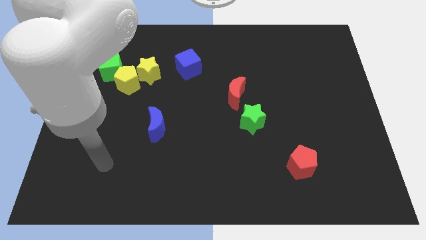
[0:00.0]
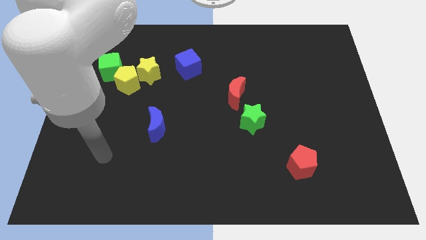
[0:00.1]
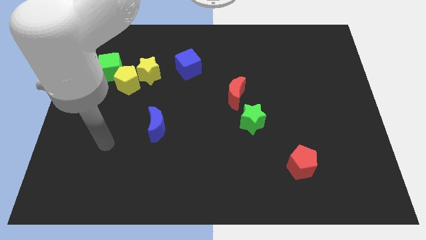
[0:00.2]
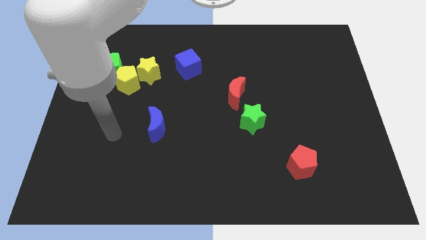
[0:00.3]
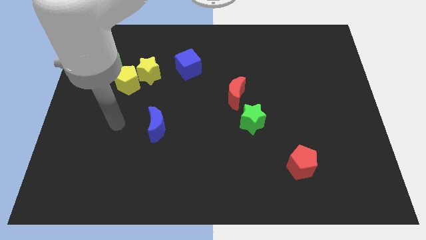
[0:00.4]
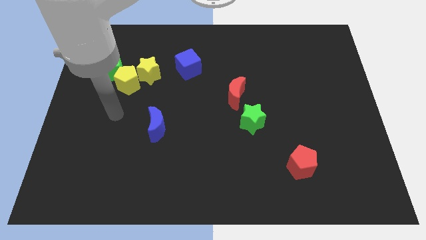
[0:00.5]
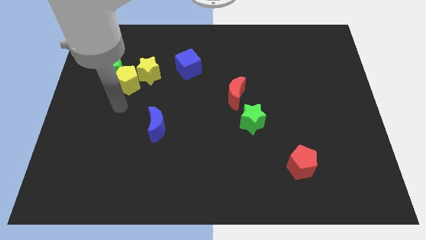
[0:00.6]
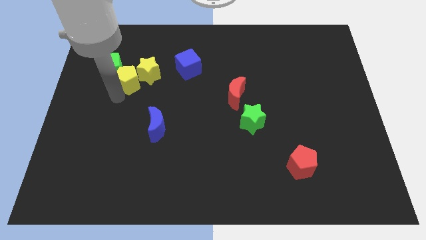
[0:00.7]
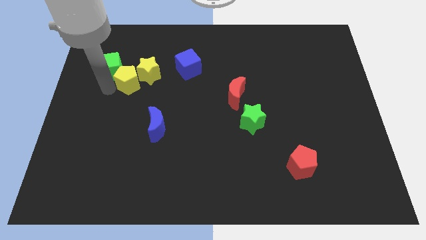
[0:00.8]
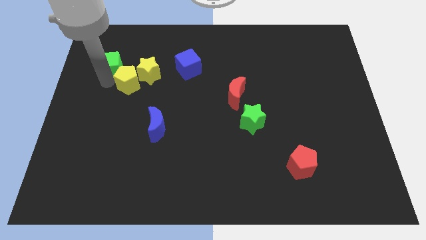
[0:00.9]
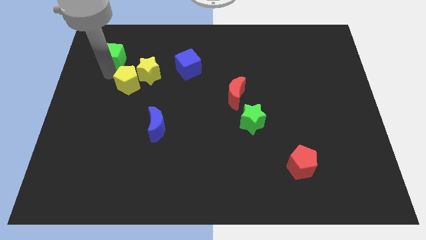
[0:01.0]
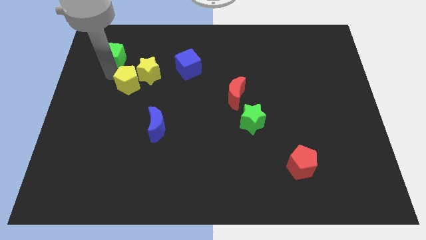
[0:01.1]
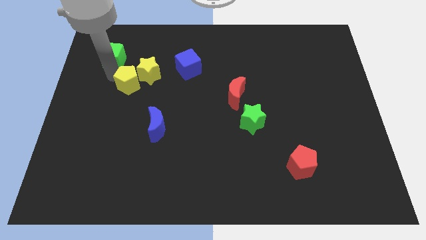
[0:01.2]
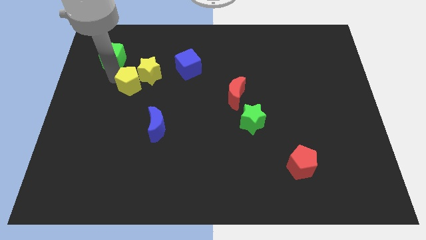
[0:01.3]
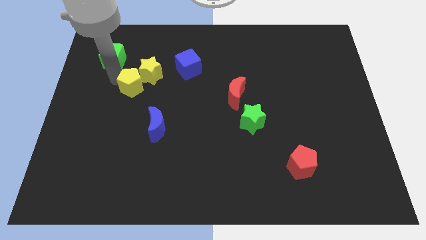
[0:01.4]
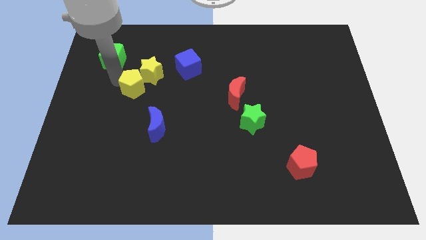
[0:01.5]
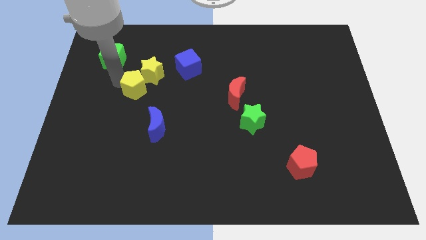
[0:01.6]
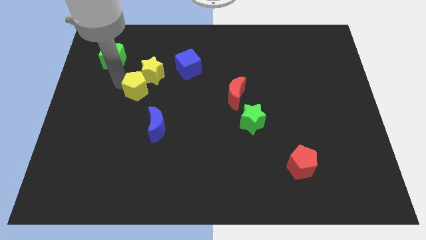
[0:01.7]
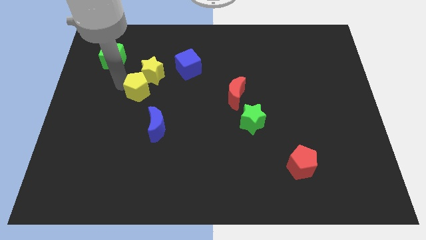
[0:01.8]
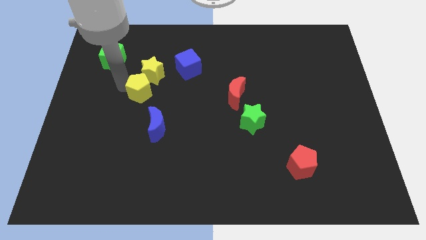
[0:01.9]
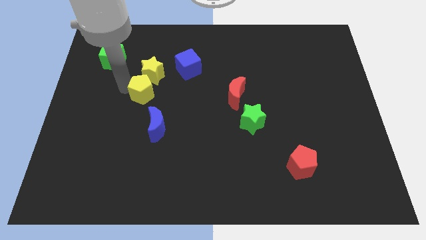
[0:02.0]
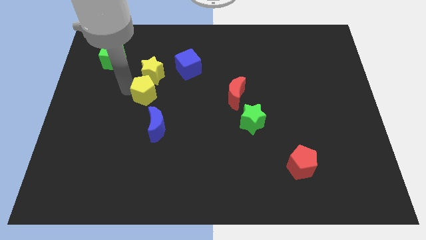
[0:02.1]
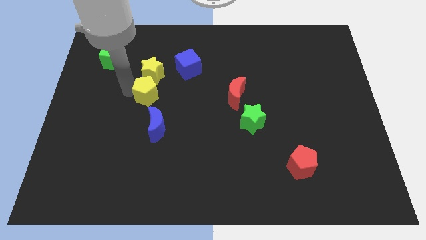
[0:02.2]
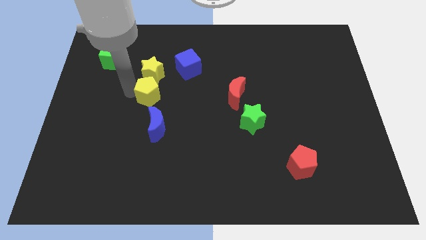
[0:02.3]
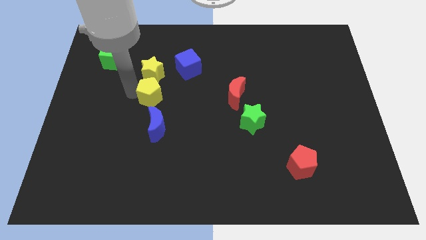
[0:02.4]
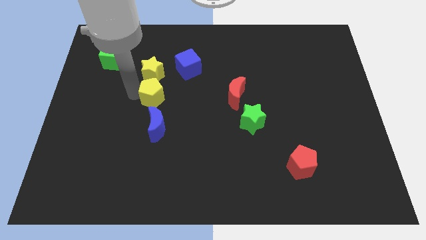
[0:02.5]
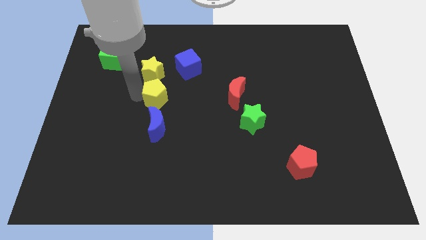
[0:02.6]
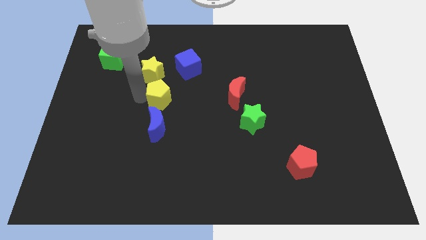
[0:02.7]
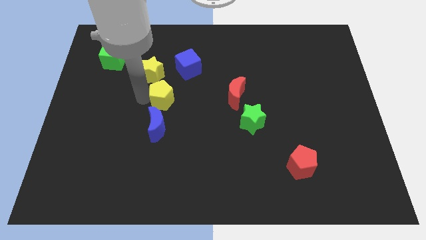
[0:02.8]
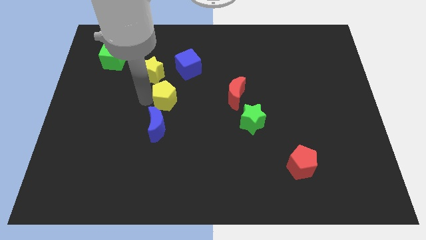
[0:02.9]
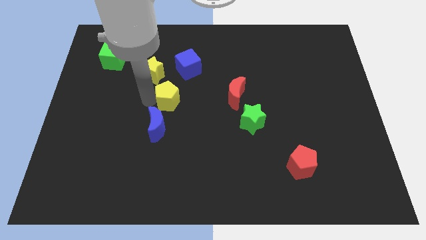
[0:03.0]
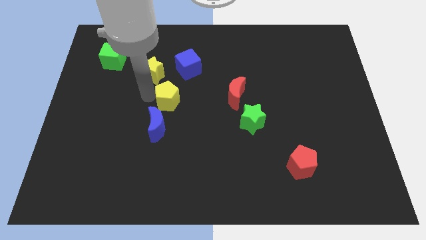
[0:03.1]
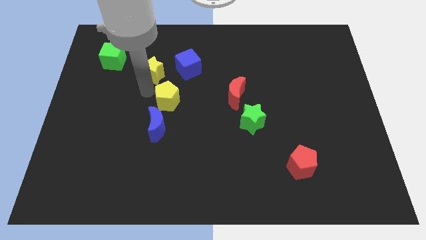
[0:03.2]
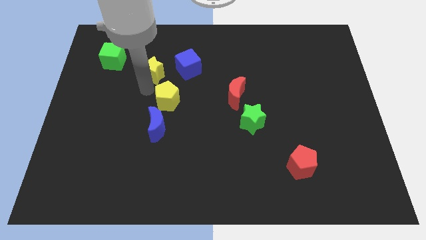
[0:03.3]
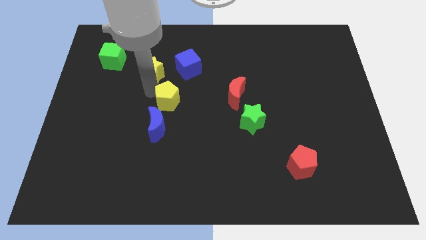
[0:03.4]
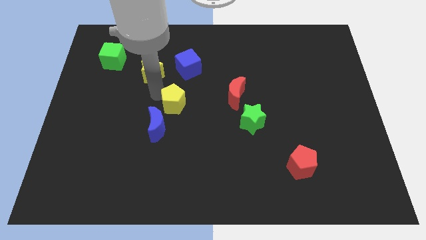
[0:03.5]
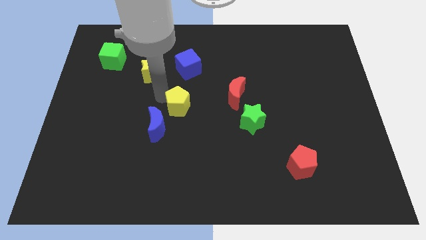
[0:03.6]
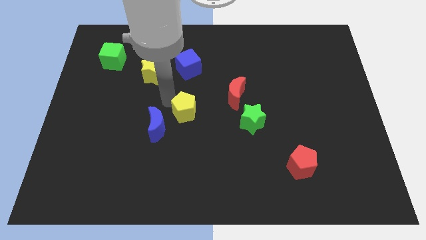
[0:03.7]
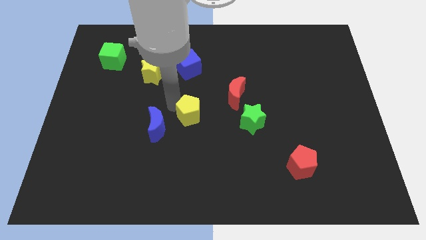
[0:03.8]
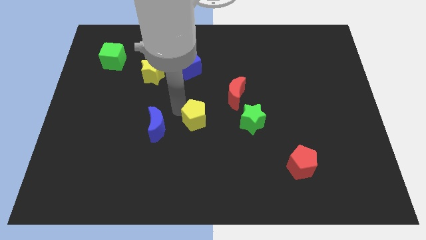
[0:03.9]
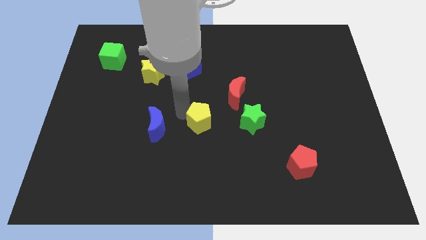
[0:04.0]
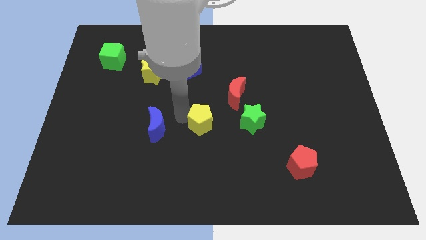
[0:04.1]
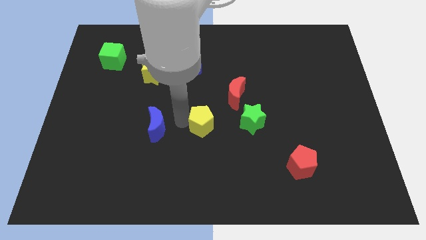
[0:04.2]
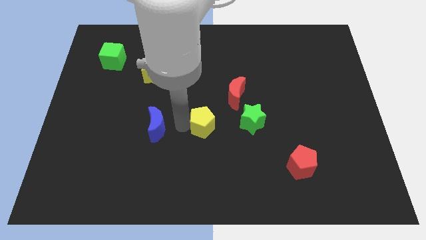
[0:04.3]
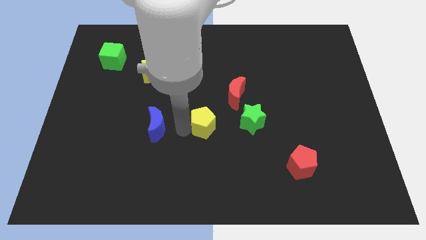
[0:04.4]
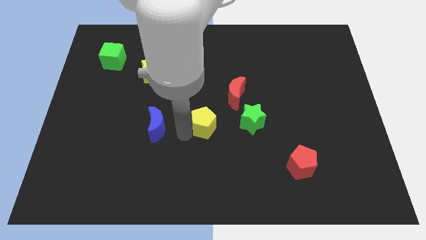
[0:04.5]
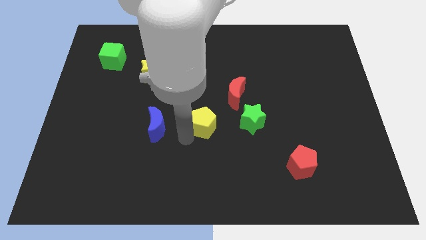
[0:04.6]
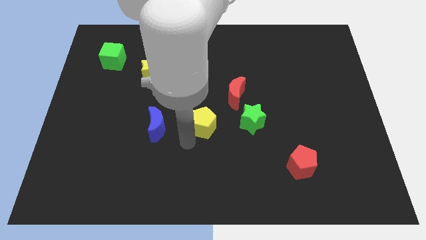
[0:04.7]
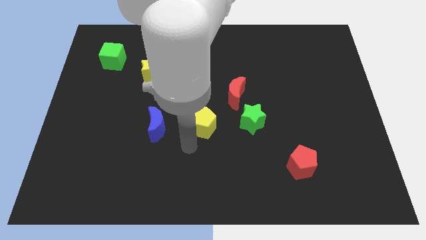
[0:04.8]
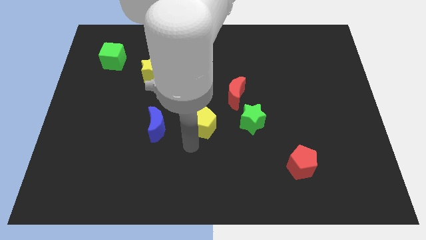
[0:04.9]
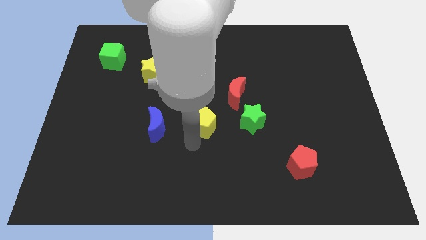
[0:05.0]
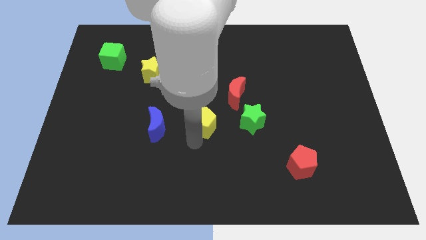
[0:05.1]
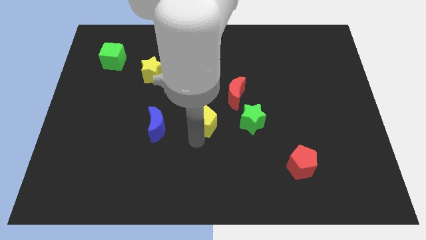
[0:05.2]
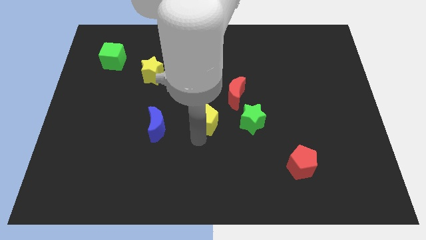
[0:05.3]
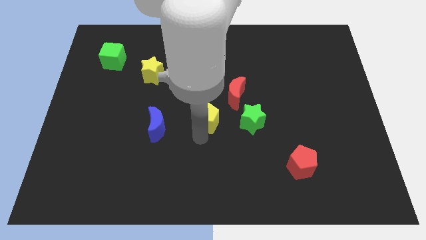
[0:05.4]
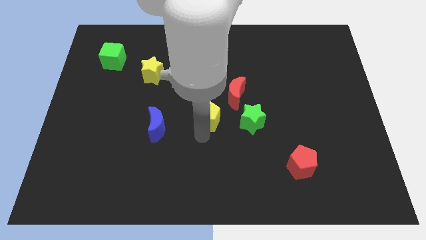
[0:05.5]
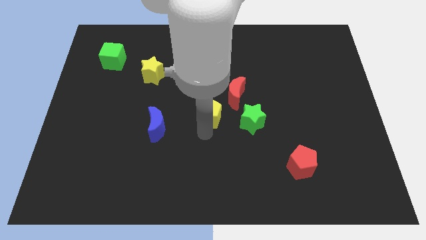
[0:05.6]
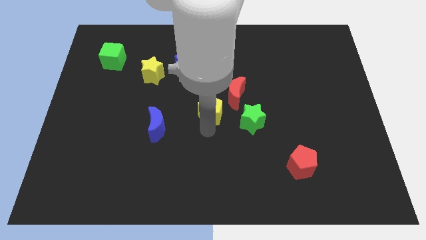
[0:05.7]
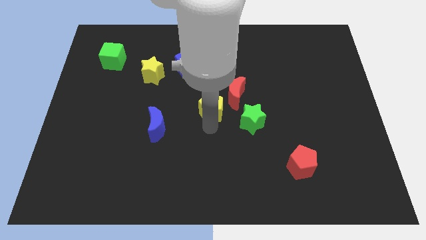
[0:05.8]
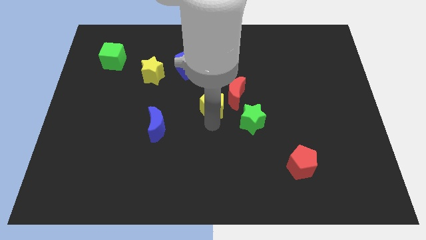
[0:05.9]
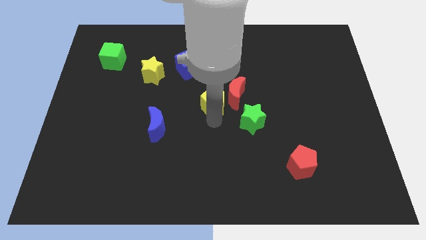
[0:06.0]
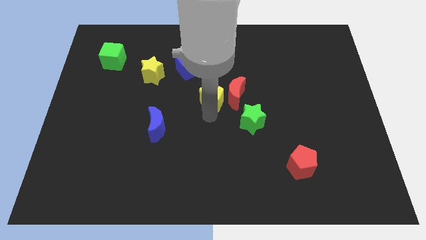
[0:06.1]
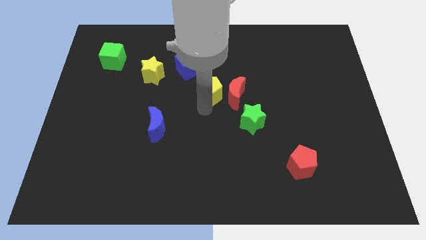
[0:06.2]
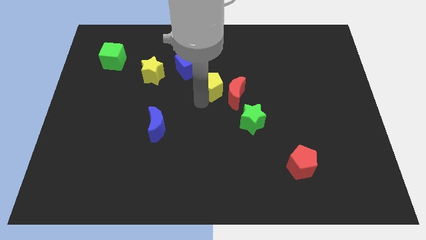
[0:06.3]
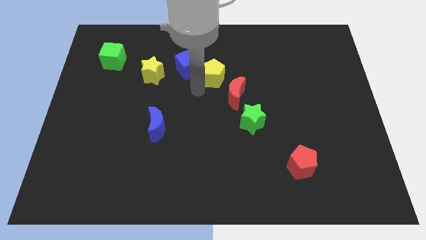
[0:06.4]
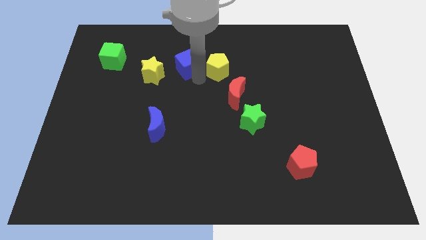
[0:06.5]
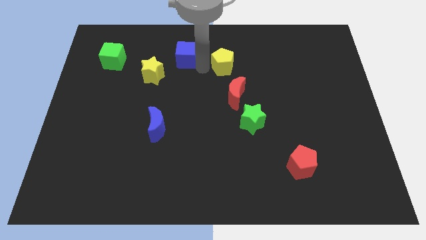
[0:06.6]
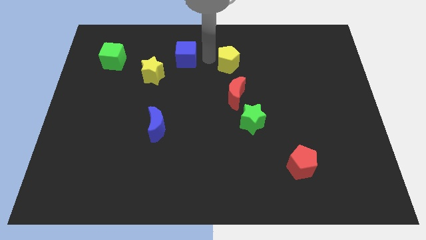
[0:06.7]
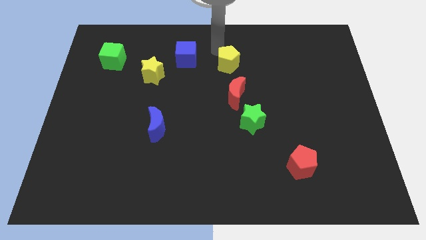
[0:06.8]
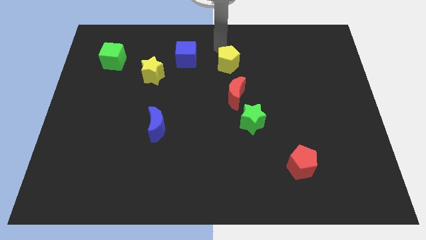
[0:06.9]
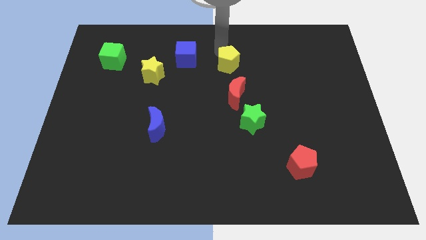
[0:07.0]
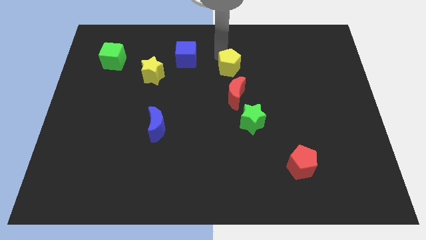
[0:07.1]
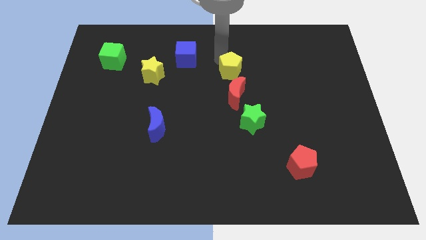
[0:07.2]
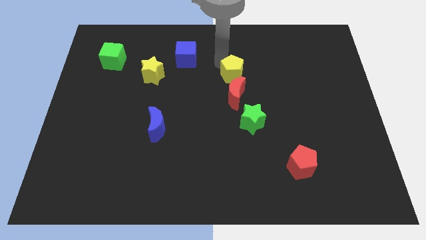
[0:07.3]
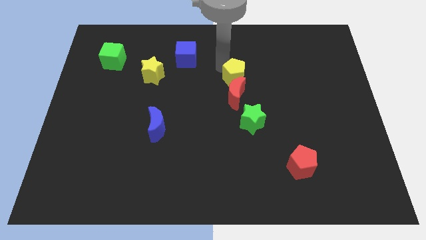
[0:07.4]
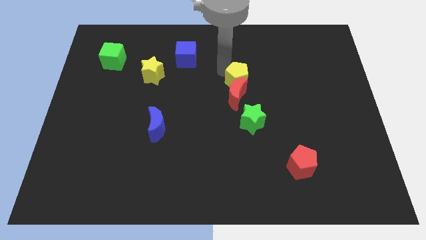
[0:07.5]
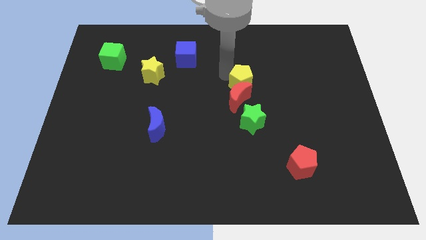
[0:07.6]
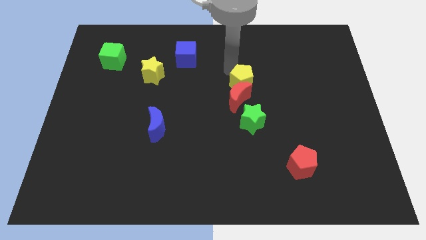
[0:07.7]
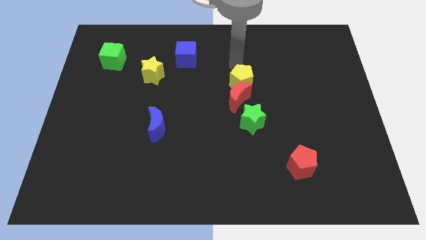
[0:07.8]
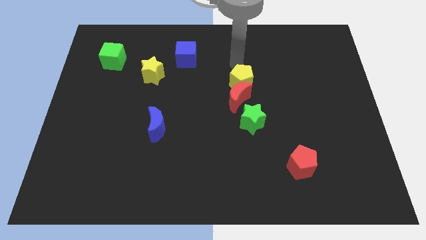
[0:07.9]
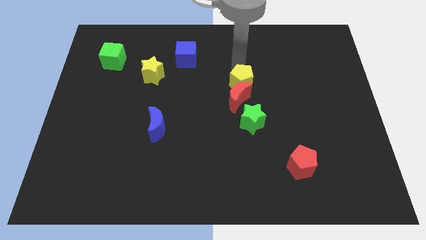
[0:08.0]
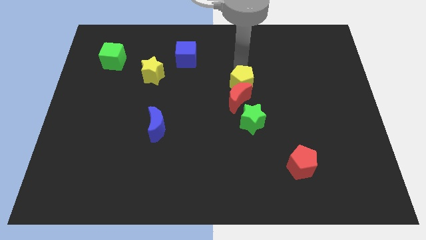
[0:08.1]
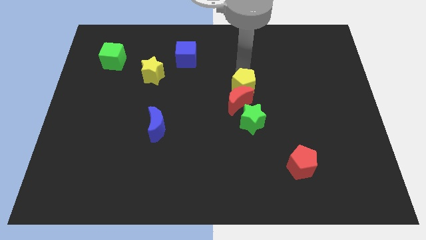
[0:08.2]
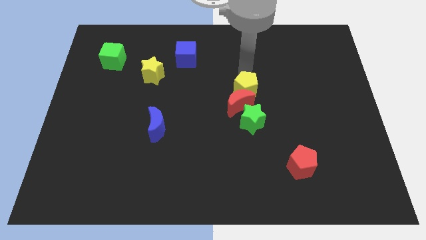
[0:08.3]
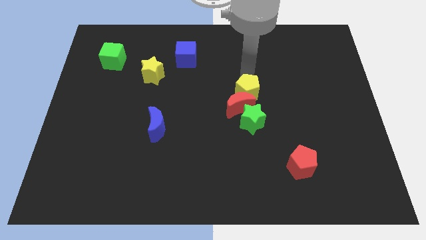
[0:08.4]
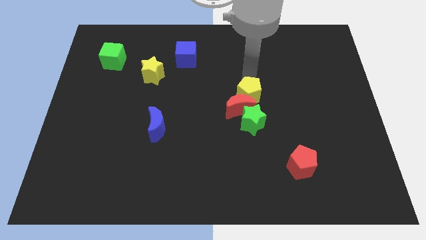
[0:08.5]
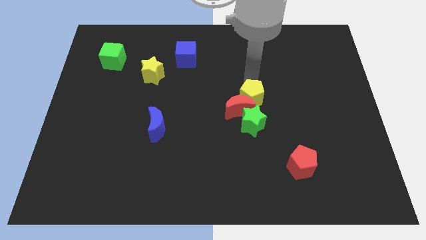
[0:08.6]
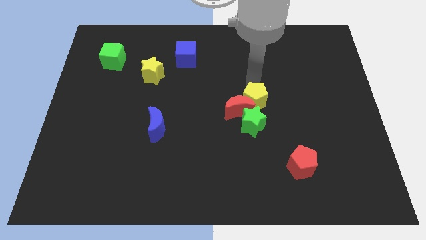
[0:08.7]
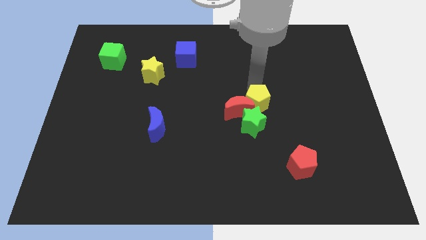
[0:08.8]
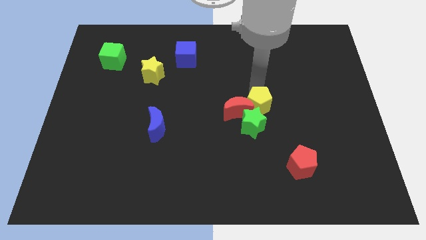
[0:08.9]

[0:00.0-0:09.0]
move the yellow pentagon to the green star
